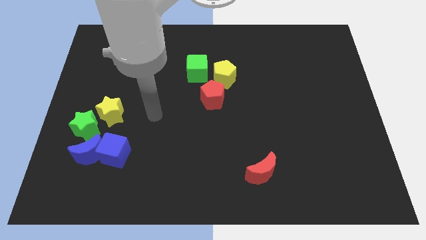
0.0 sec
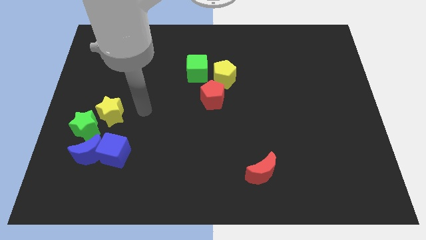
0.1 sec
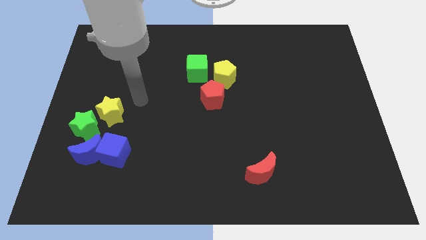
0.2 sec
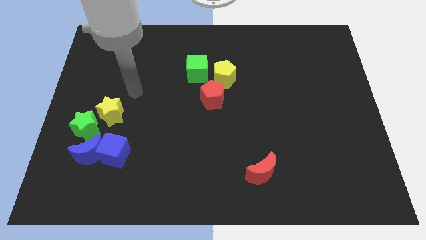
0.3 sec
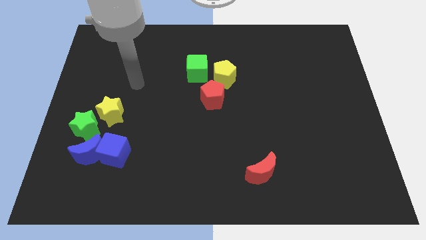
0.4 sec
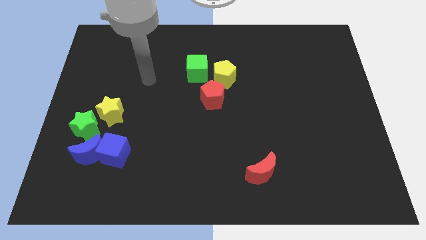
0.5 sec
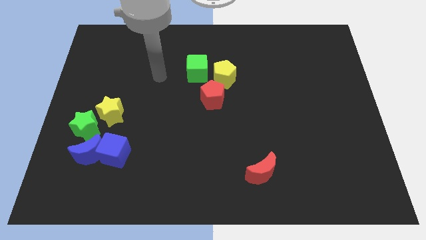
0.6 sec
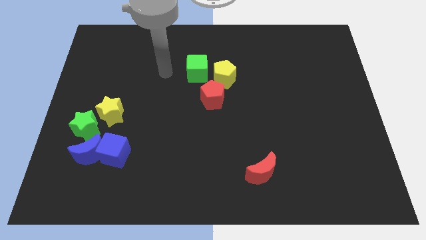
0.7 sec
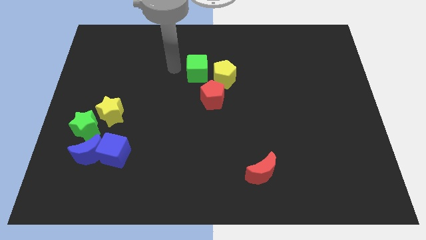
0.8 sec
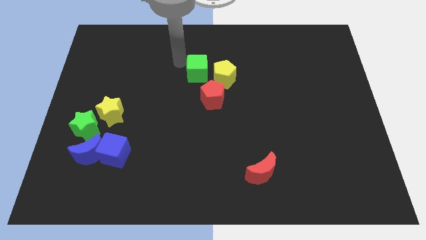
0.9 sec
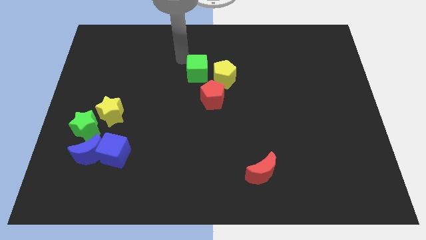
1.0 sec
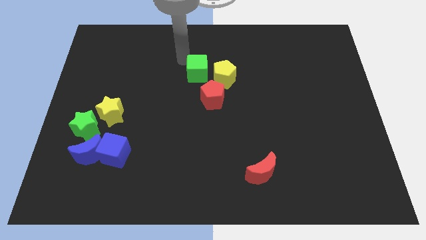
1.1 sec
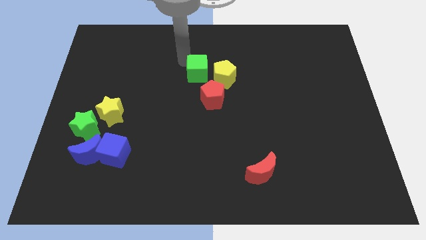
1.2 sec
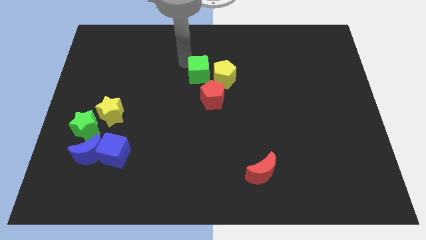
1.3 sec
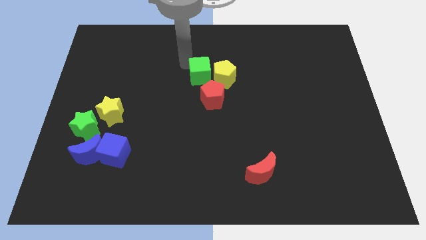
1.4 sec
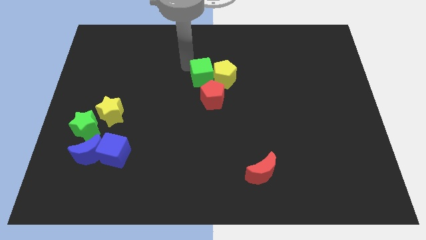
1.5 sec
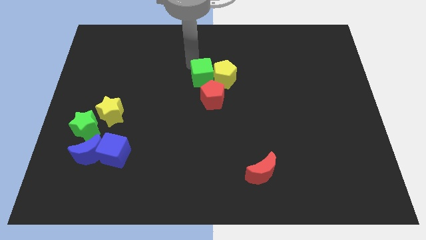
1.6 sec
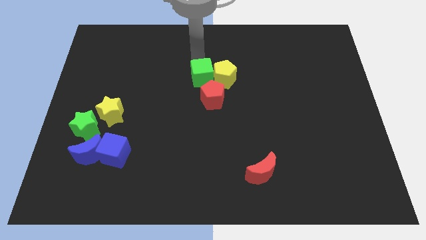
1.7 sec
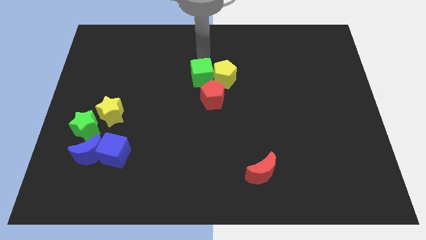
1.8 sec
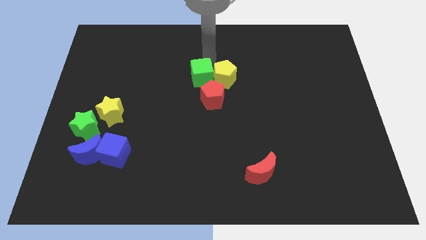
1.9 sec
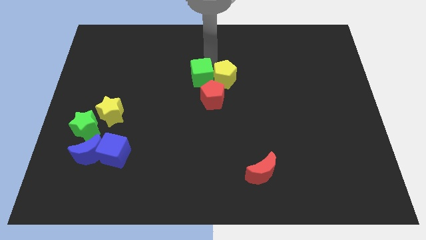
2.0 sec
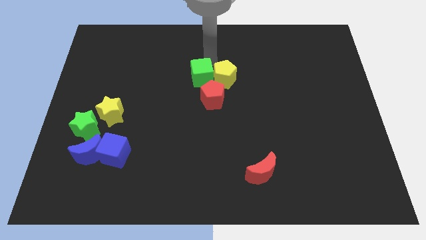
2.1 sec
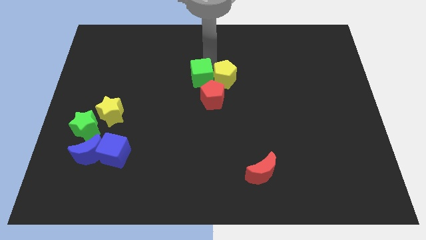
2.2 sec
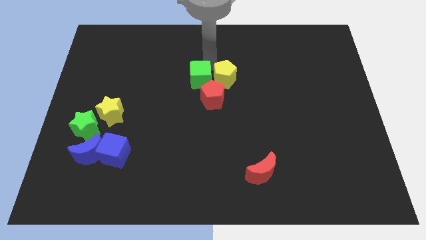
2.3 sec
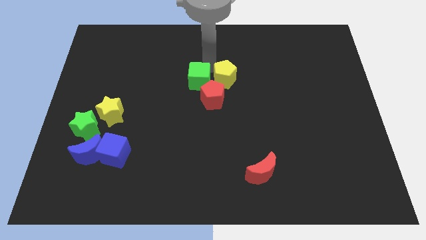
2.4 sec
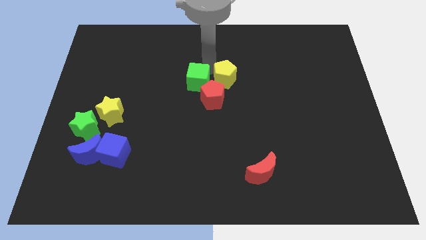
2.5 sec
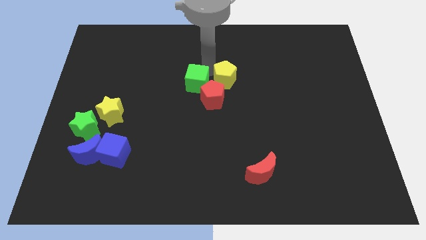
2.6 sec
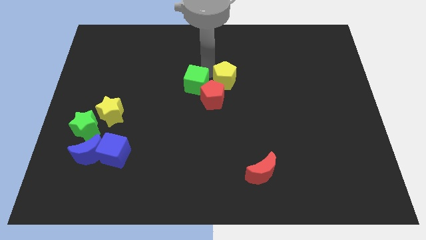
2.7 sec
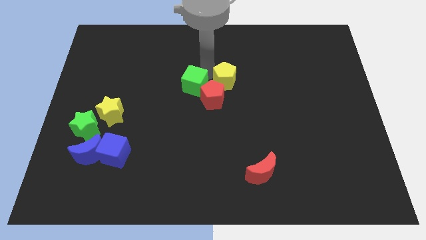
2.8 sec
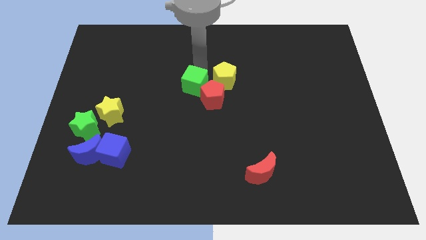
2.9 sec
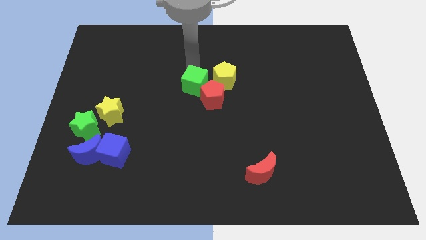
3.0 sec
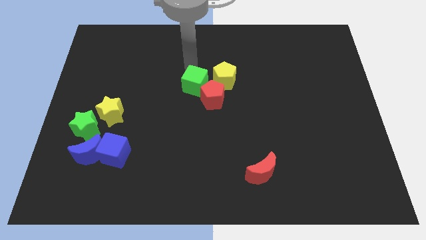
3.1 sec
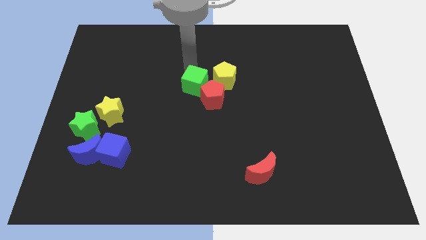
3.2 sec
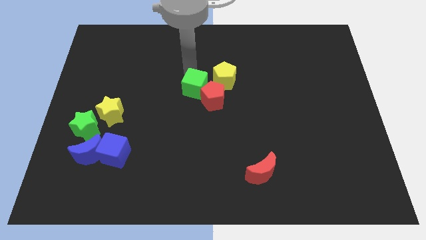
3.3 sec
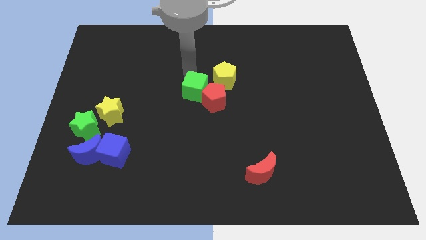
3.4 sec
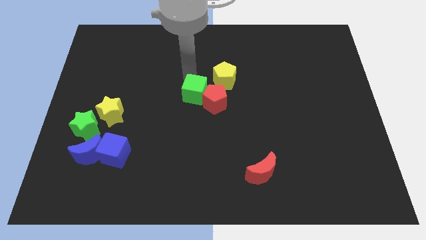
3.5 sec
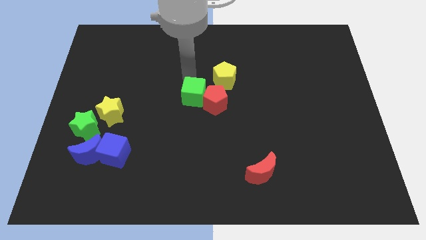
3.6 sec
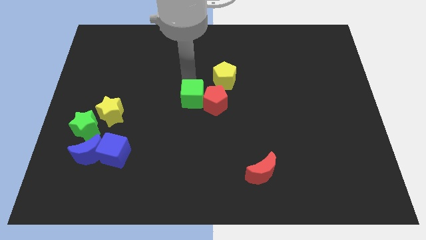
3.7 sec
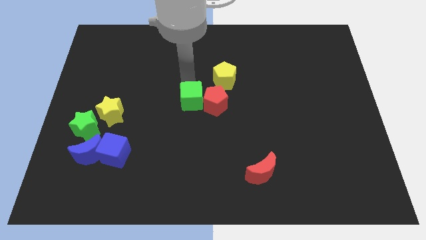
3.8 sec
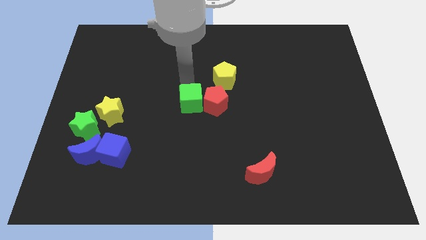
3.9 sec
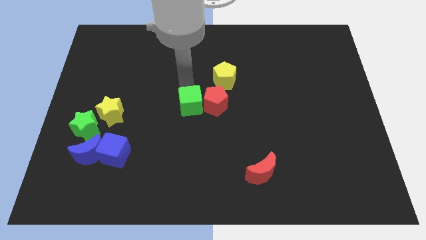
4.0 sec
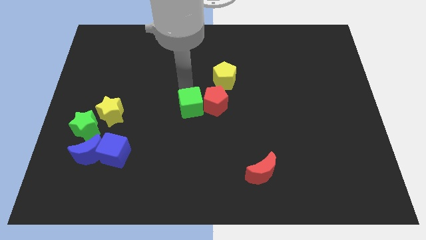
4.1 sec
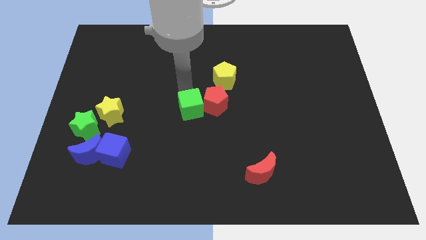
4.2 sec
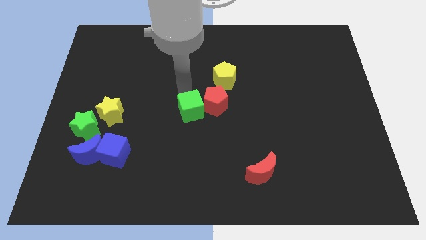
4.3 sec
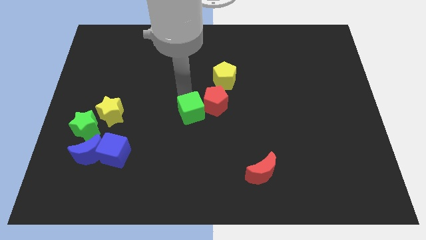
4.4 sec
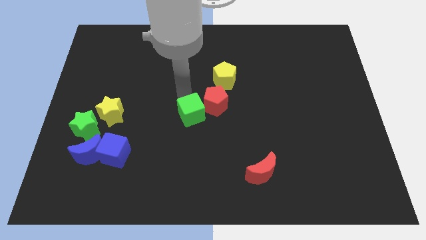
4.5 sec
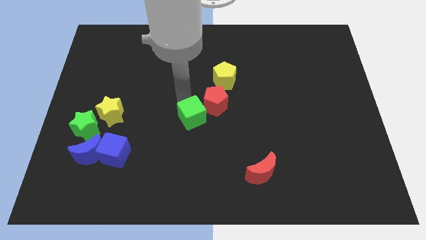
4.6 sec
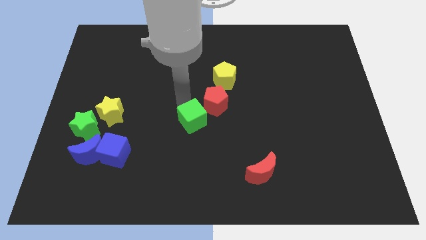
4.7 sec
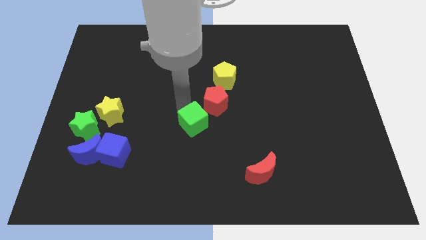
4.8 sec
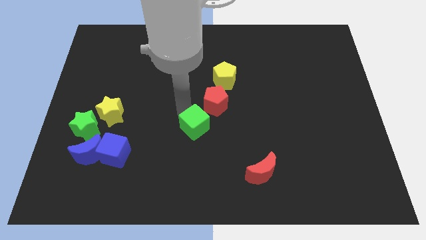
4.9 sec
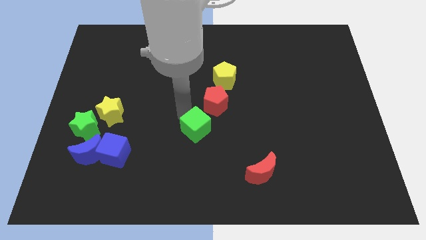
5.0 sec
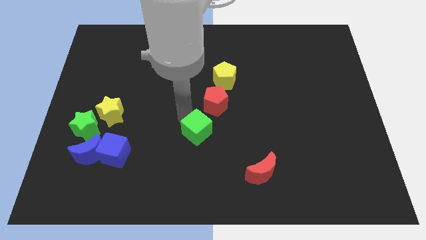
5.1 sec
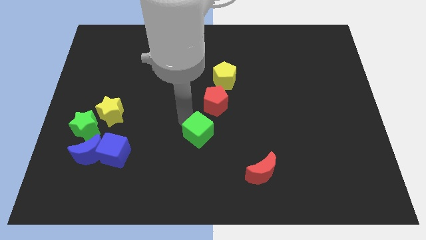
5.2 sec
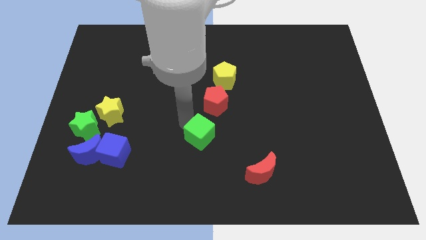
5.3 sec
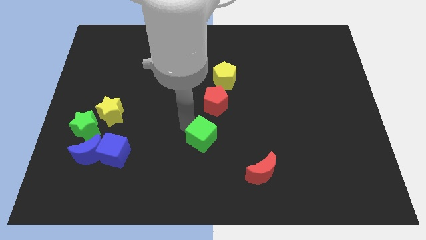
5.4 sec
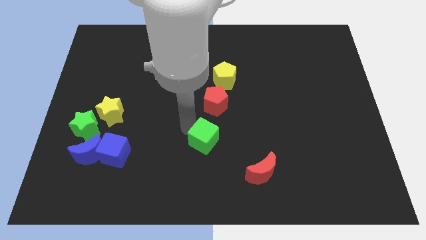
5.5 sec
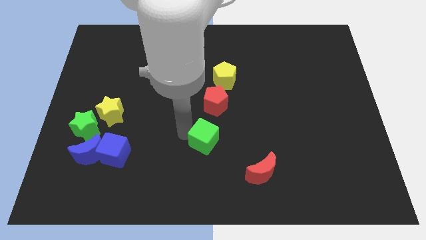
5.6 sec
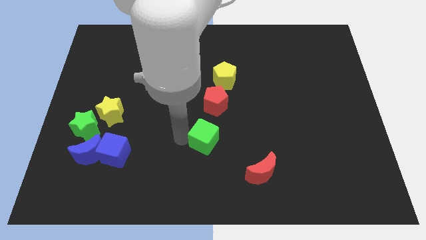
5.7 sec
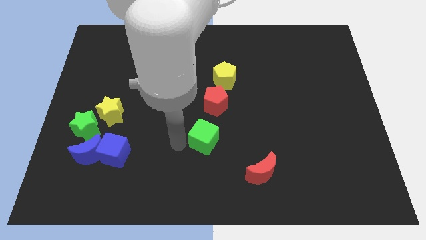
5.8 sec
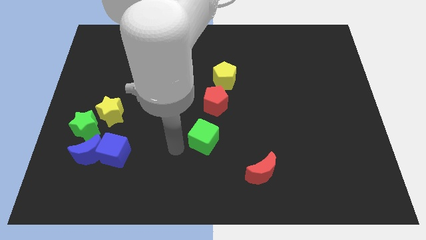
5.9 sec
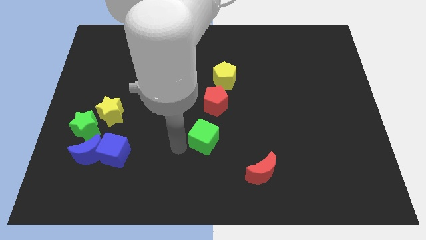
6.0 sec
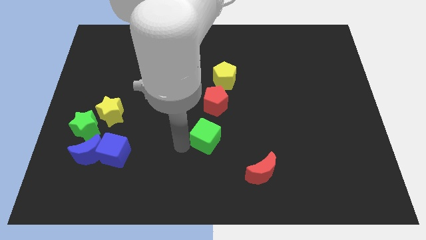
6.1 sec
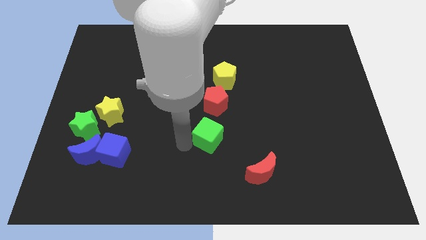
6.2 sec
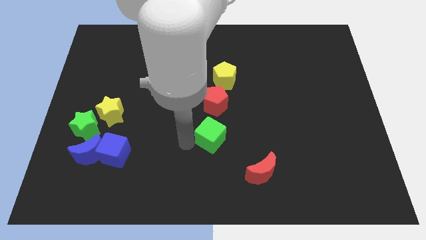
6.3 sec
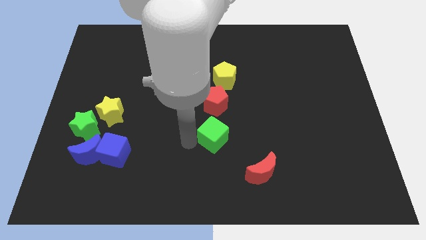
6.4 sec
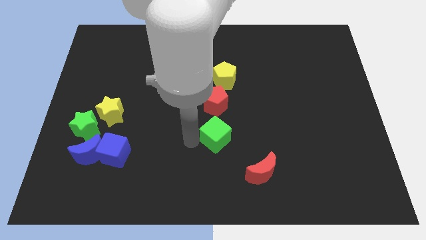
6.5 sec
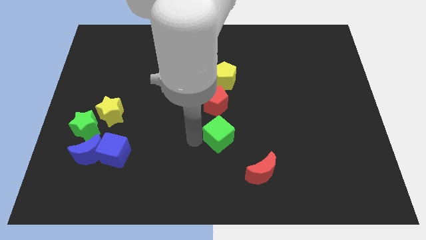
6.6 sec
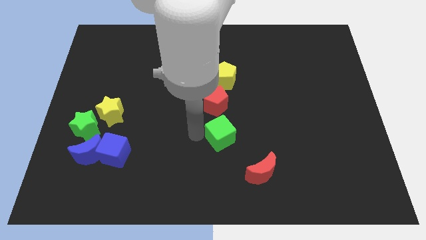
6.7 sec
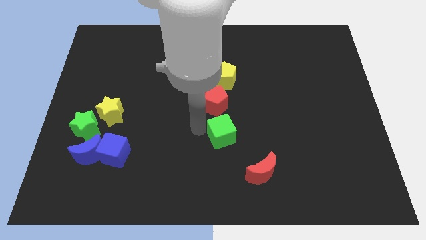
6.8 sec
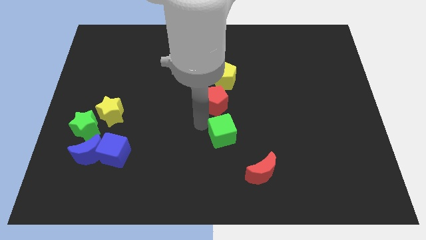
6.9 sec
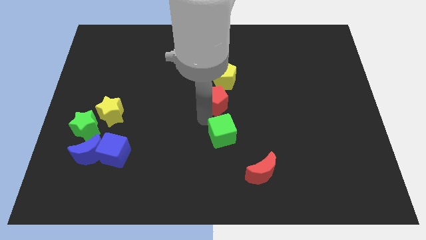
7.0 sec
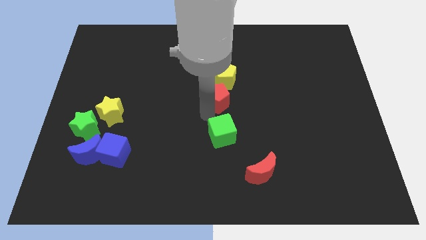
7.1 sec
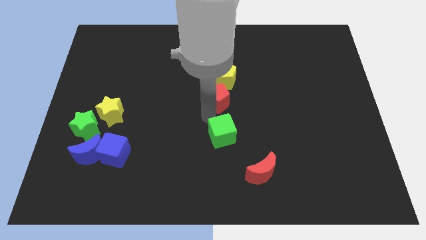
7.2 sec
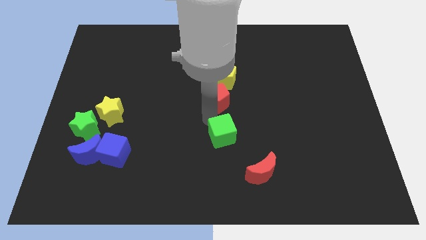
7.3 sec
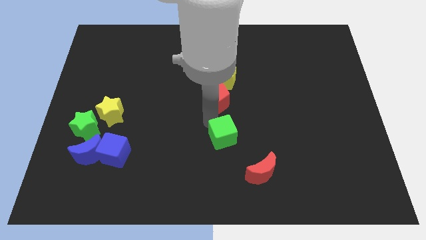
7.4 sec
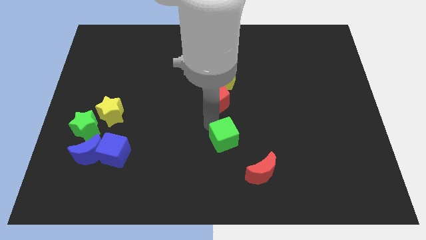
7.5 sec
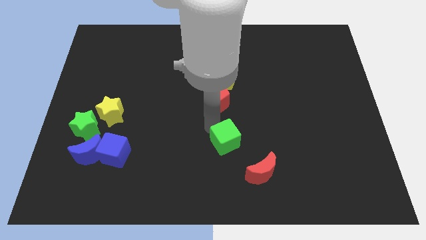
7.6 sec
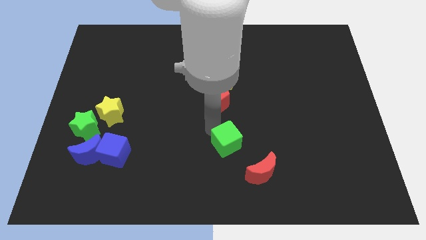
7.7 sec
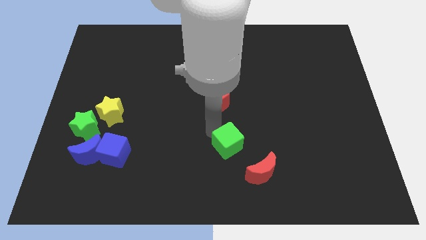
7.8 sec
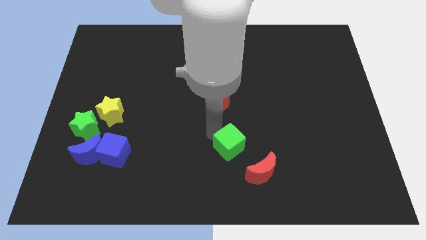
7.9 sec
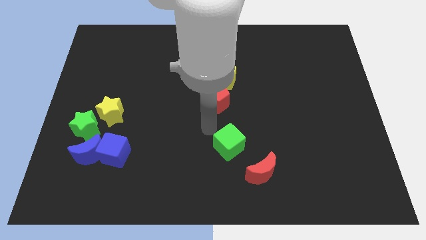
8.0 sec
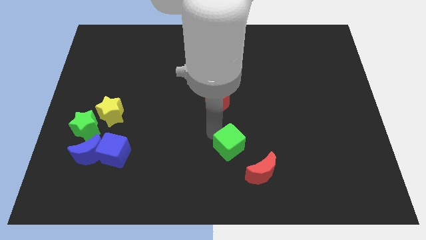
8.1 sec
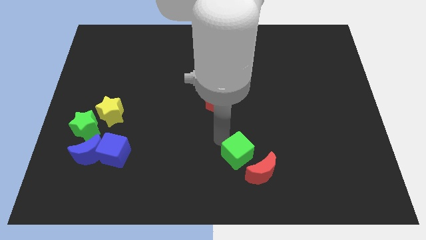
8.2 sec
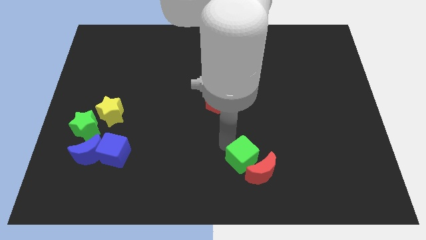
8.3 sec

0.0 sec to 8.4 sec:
put the green cube to the red moon
